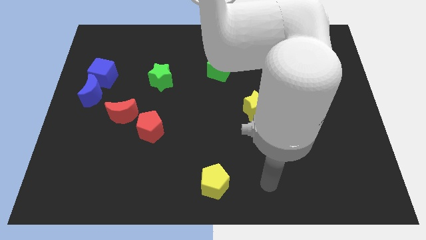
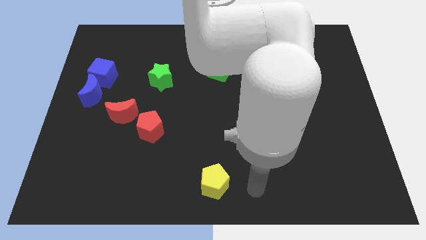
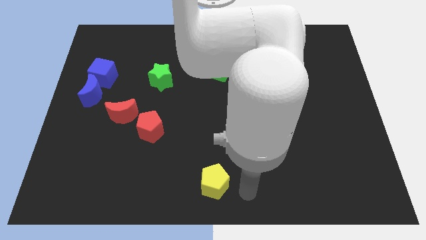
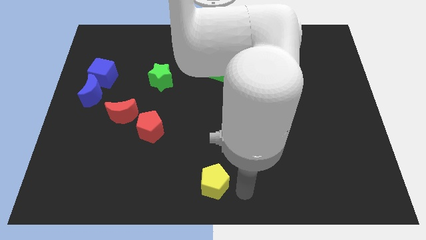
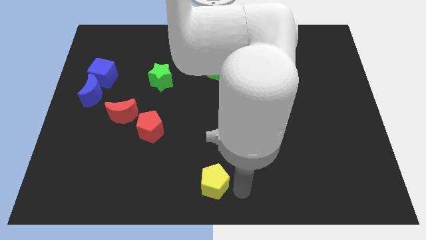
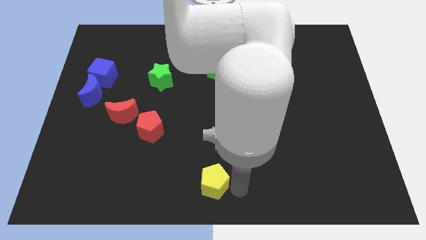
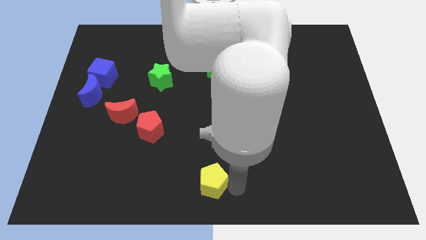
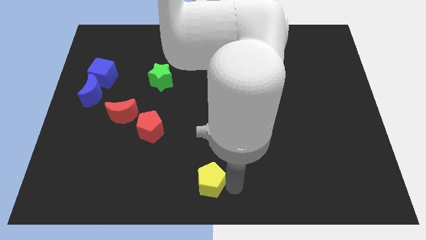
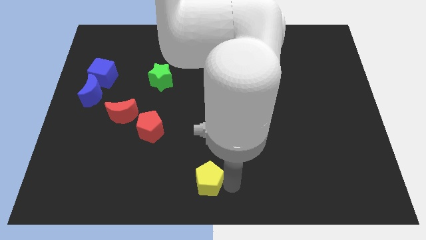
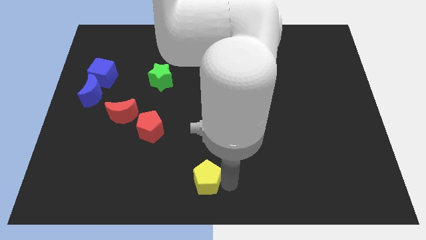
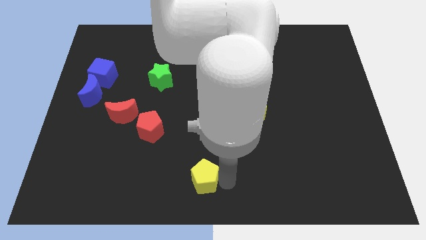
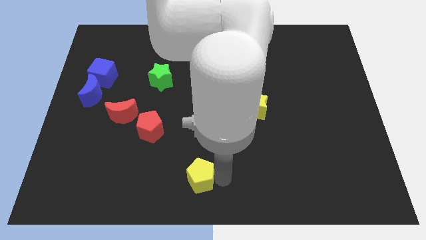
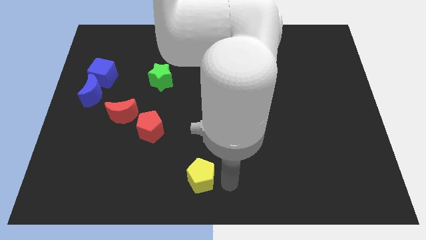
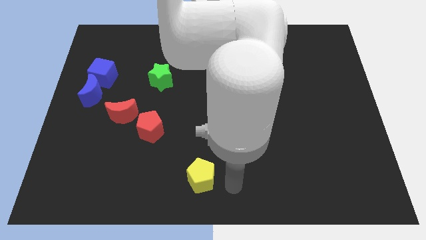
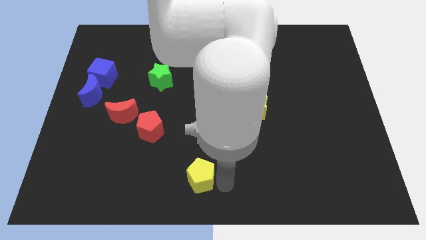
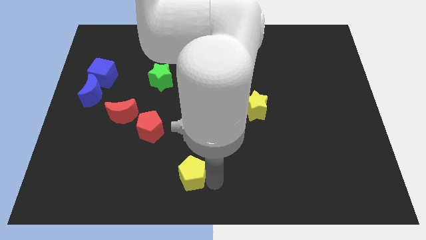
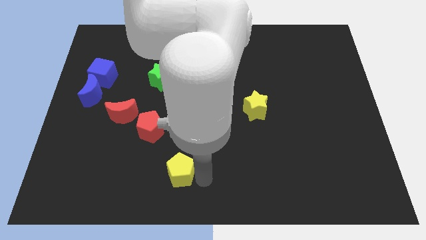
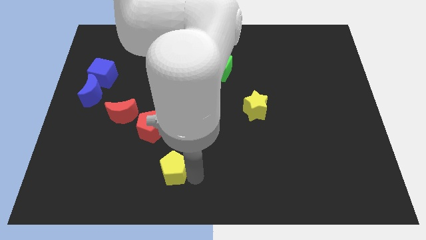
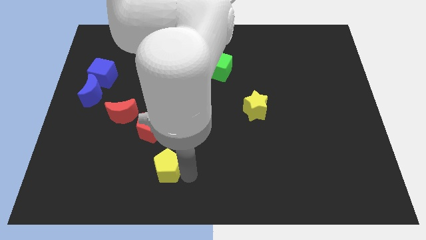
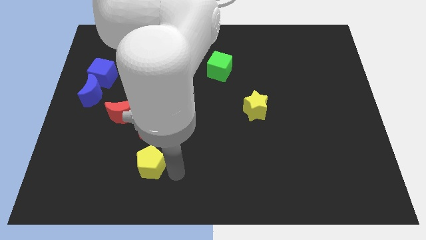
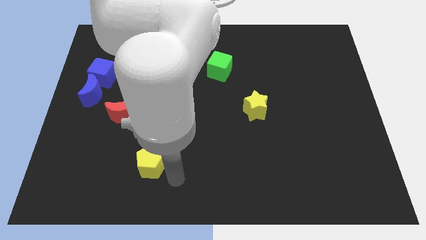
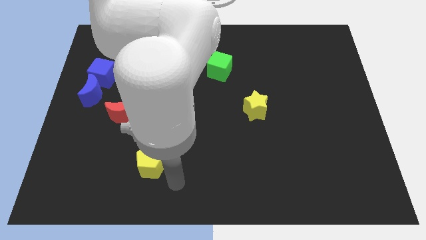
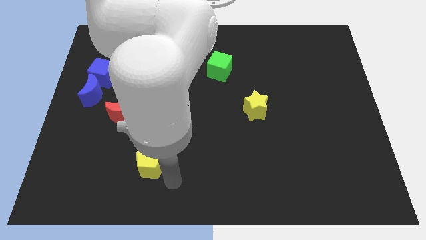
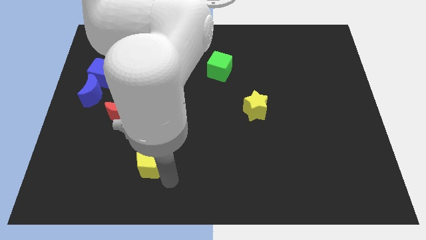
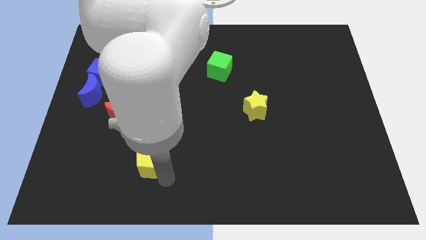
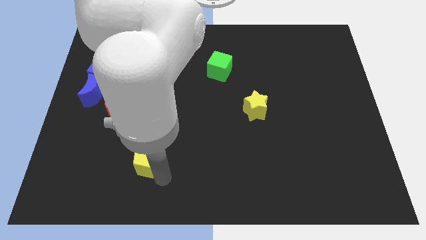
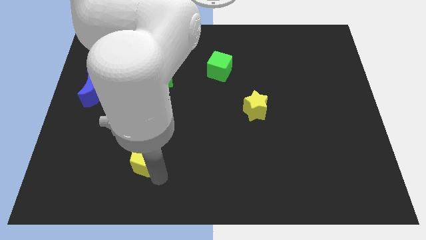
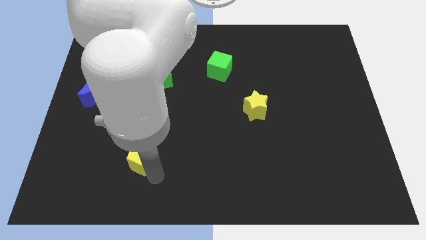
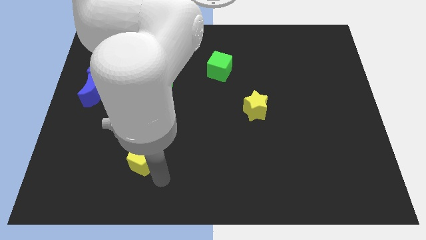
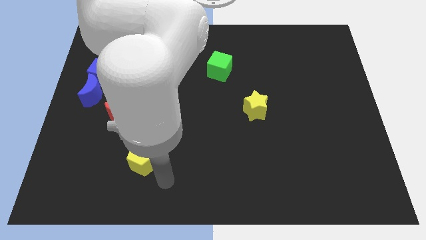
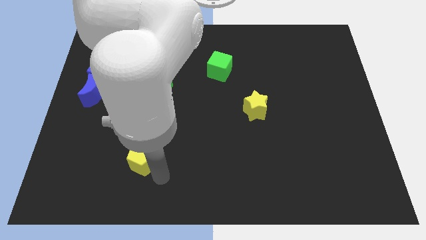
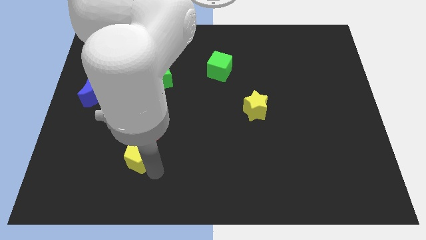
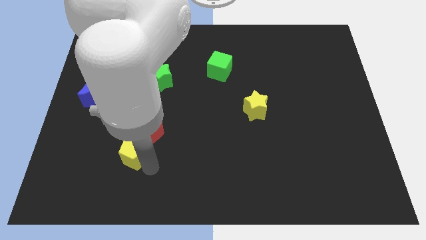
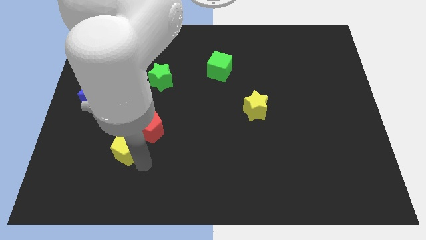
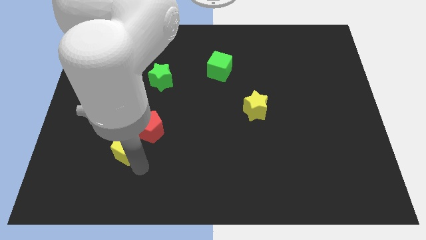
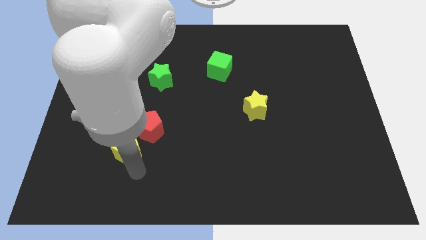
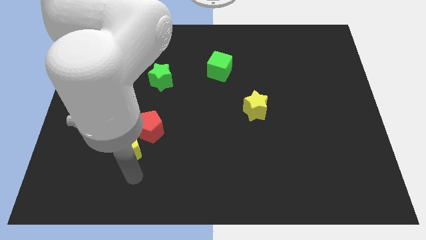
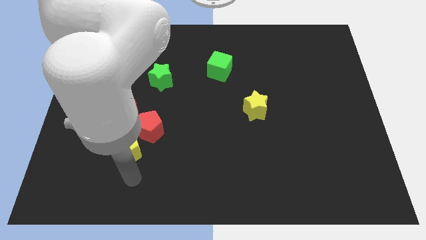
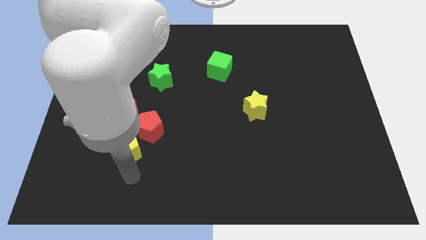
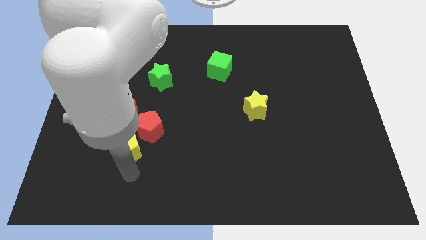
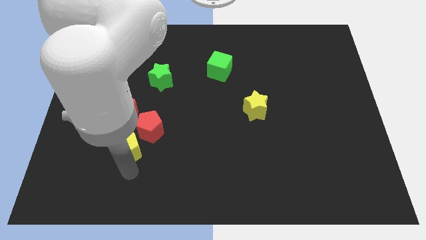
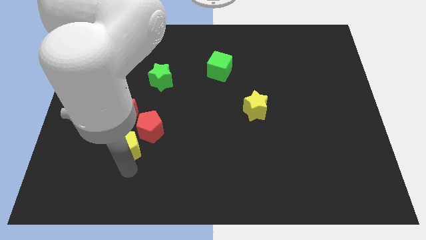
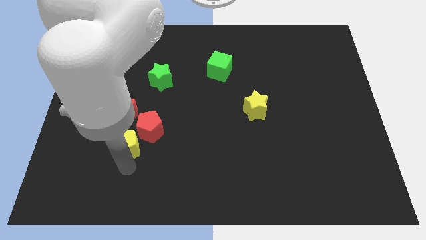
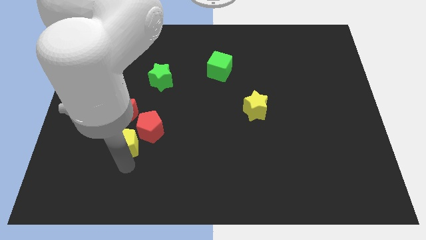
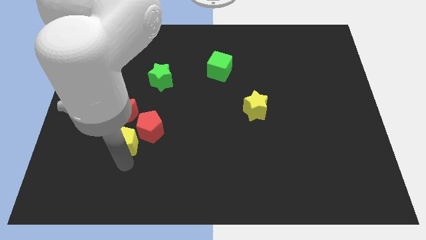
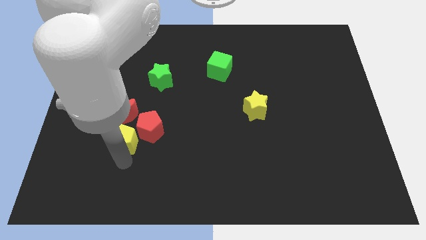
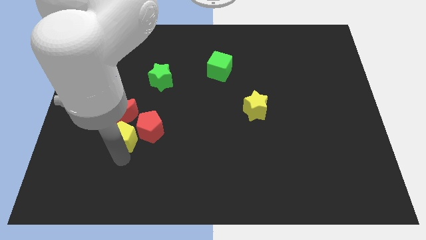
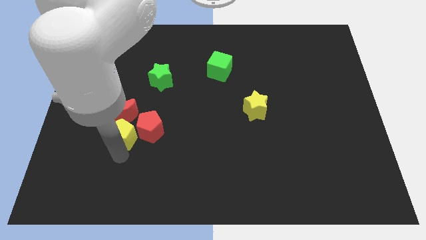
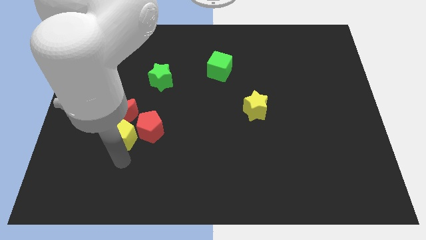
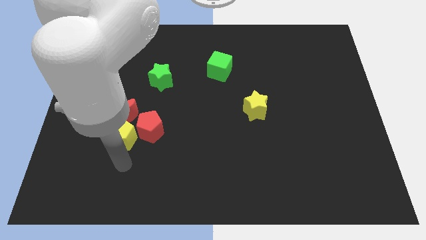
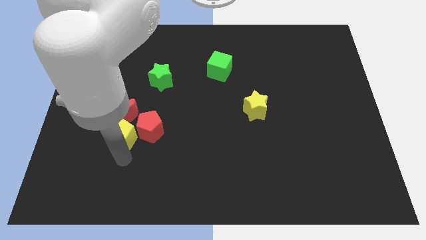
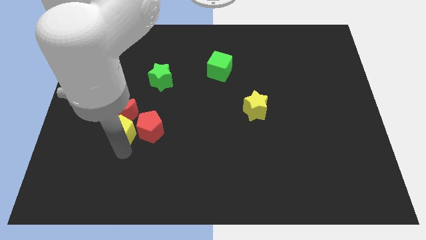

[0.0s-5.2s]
move the yellow pentagon close to the red moon

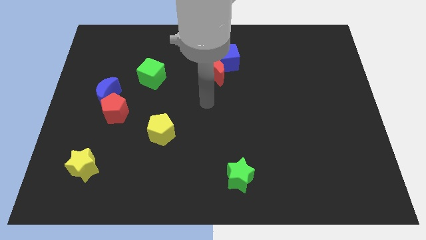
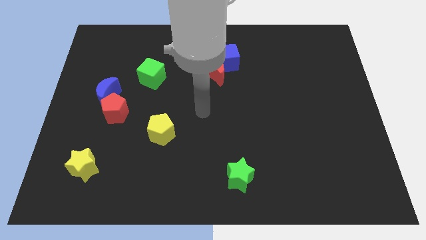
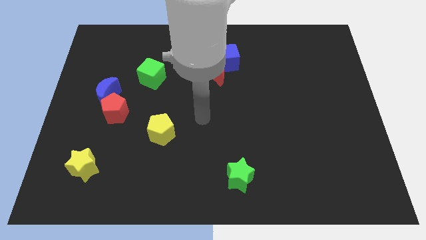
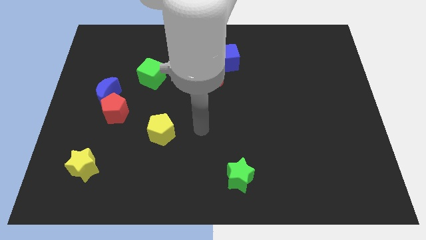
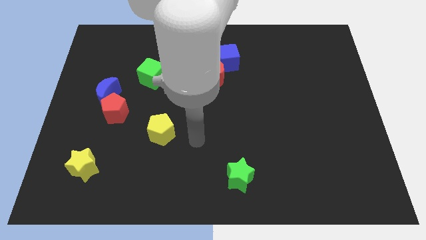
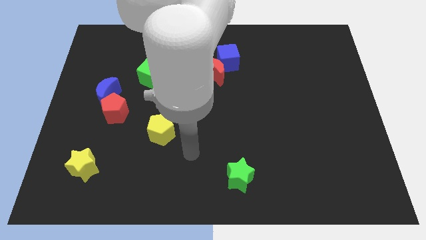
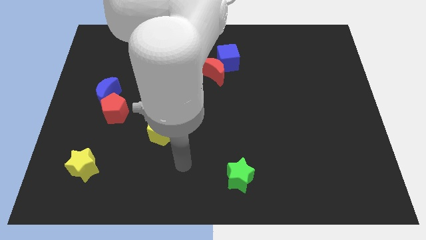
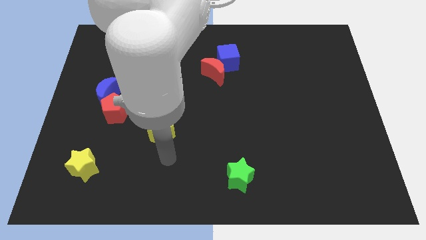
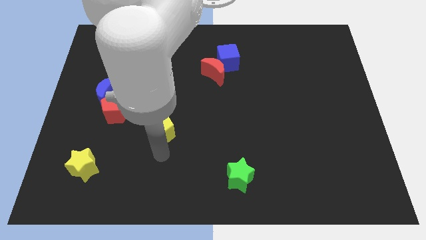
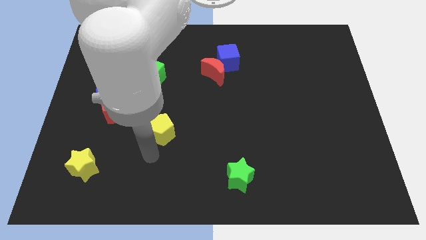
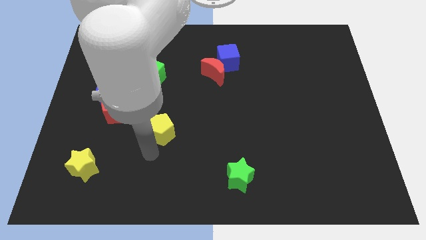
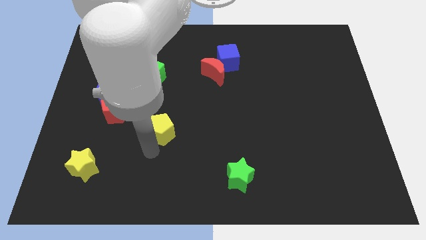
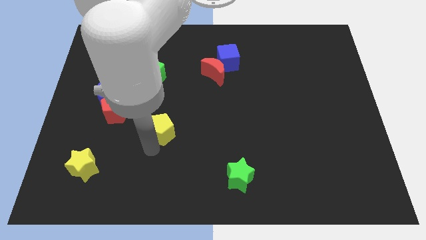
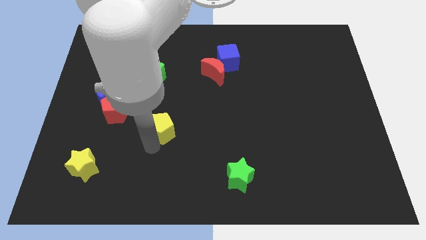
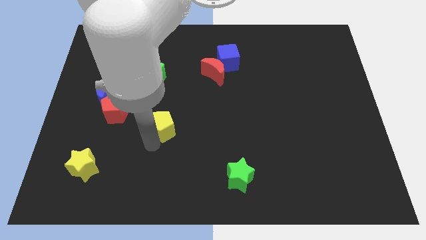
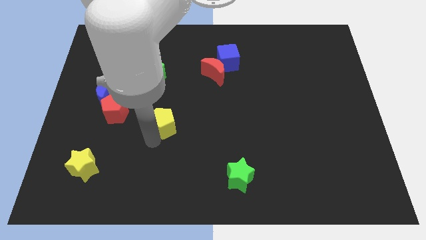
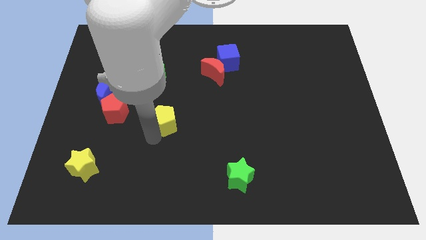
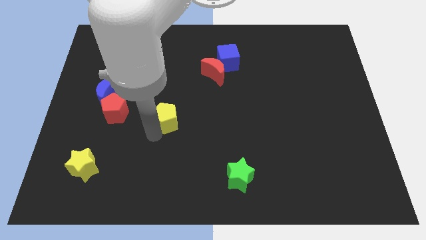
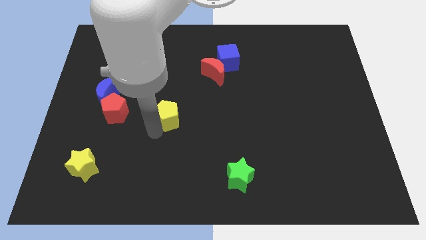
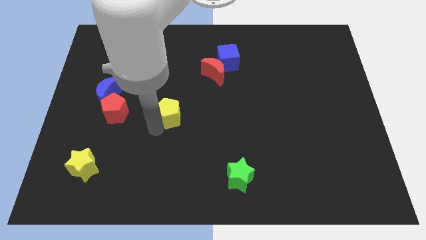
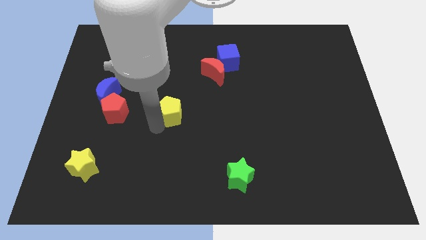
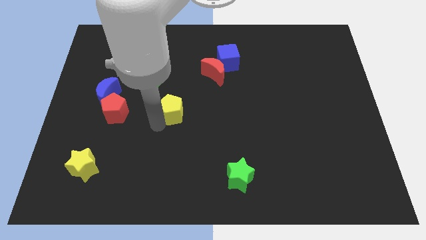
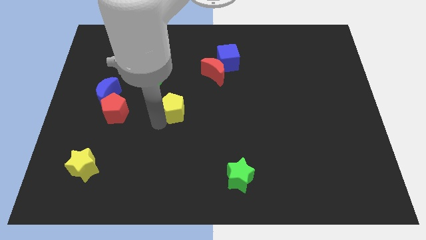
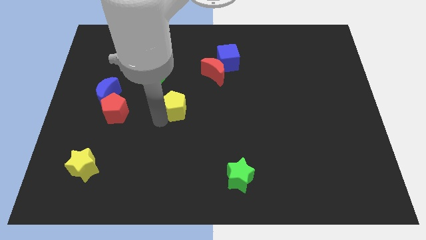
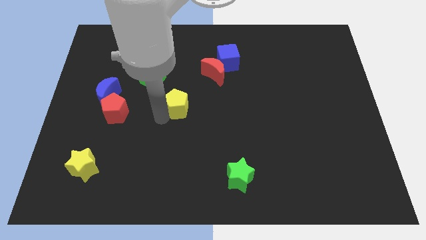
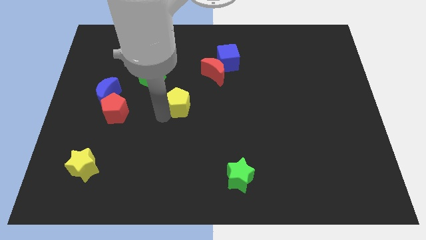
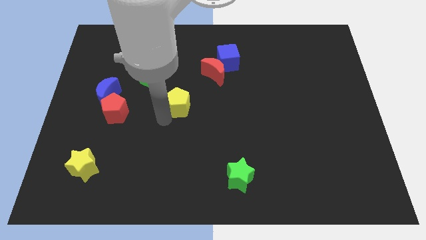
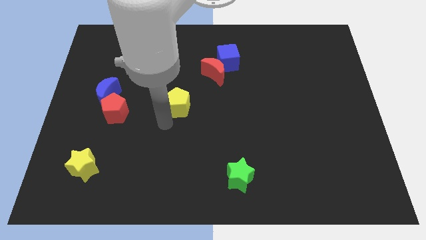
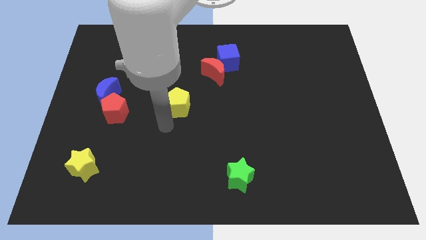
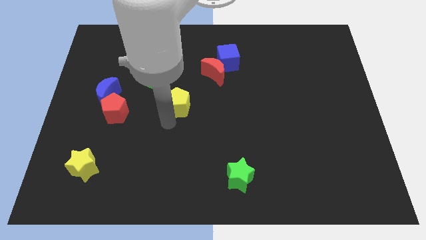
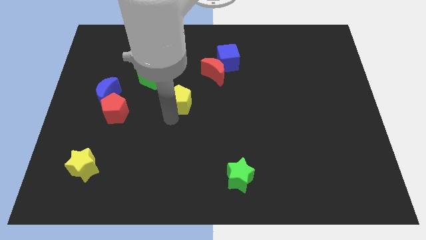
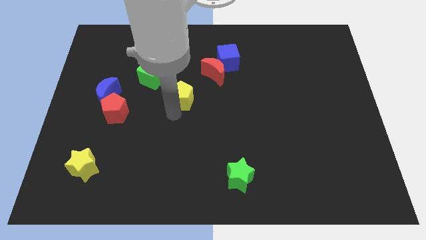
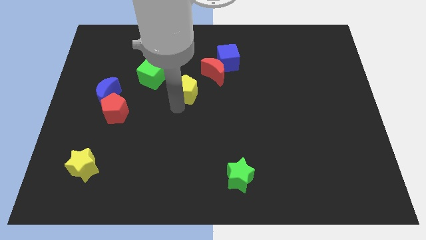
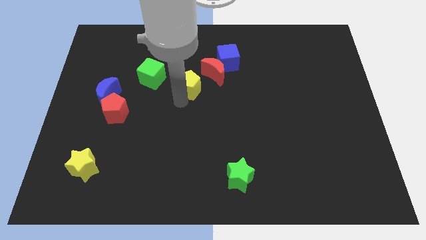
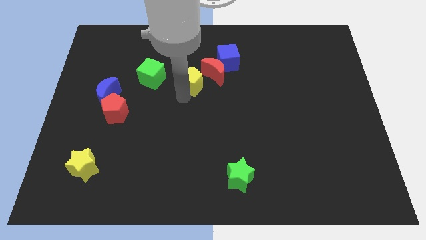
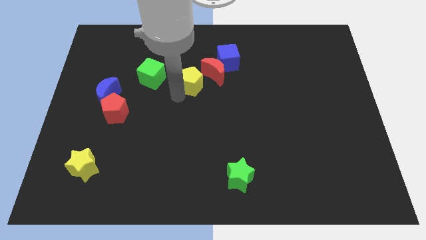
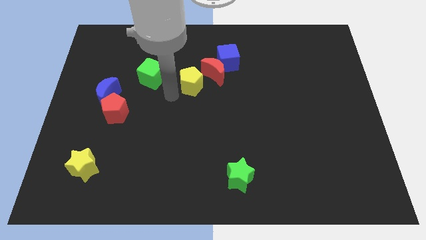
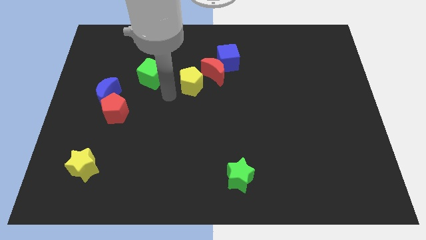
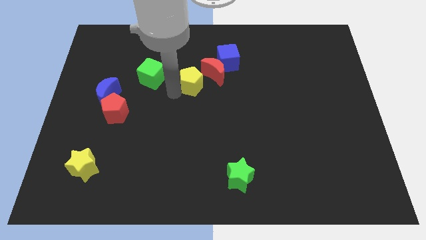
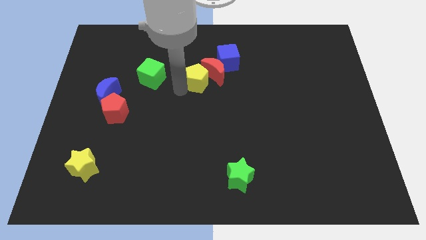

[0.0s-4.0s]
push the yellow pentagon next to the red moon
